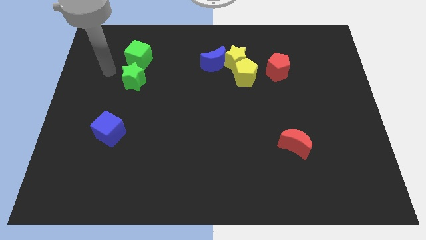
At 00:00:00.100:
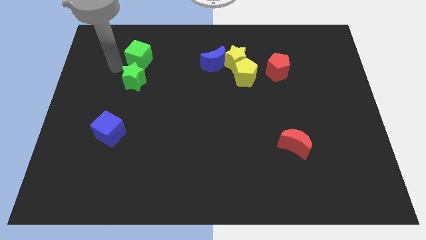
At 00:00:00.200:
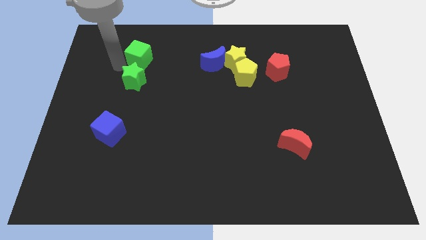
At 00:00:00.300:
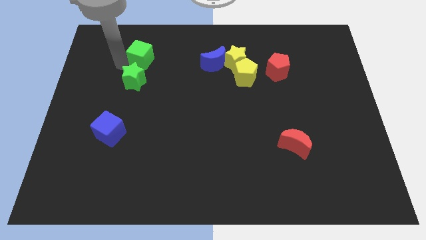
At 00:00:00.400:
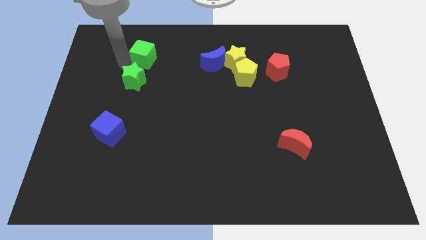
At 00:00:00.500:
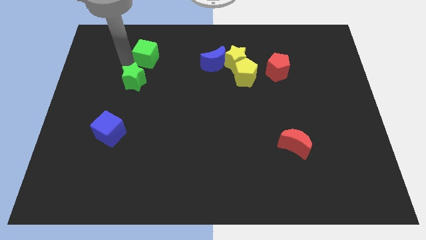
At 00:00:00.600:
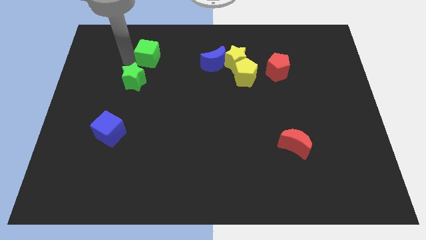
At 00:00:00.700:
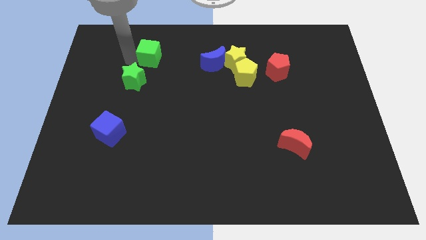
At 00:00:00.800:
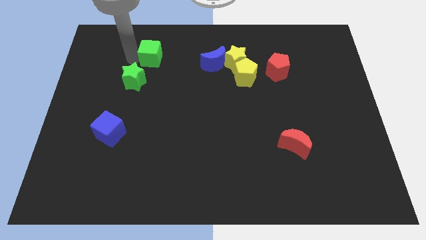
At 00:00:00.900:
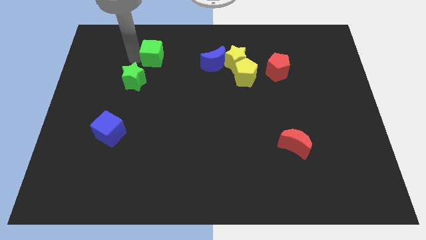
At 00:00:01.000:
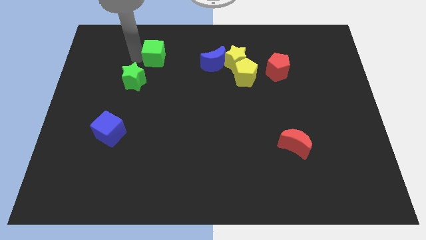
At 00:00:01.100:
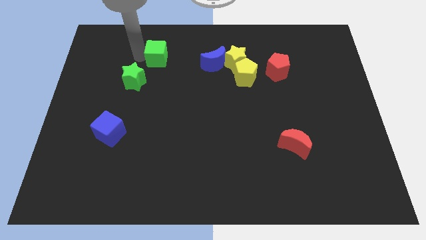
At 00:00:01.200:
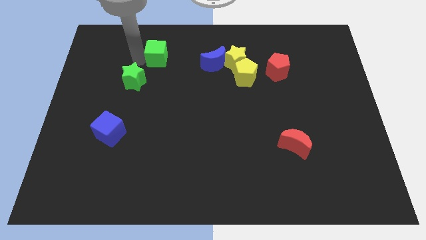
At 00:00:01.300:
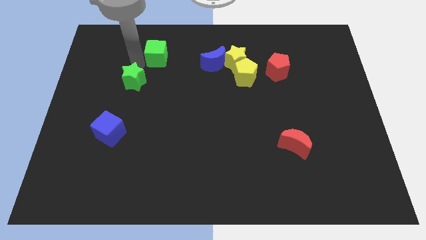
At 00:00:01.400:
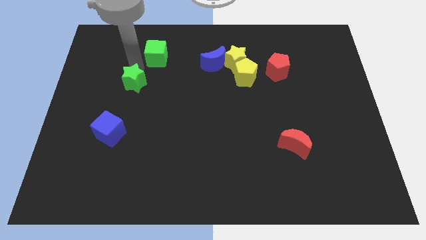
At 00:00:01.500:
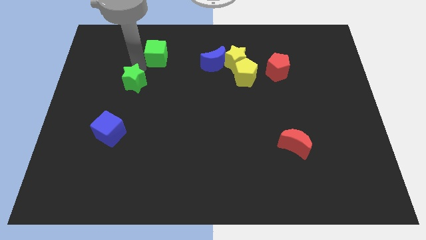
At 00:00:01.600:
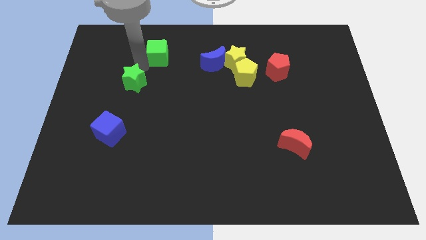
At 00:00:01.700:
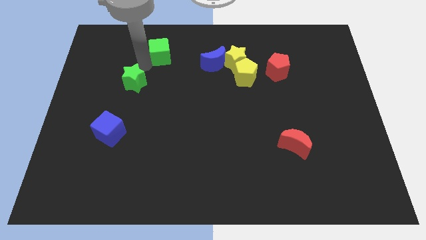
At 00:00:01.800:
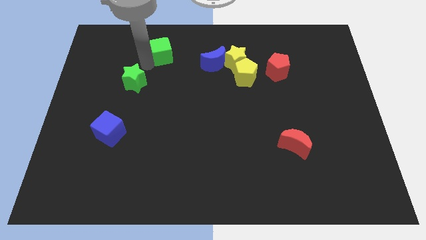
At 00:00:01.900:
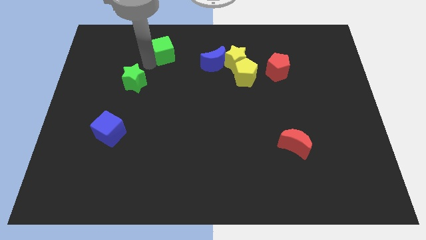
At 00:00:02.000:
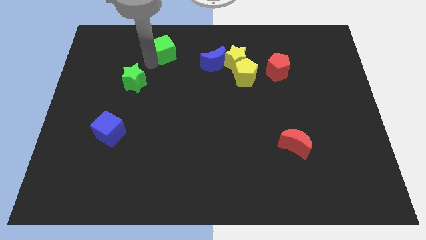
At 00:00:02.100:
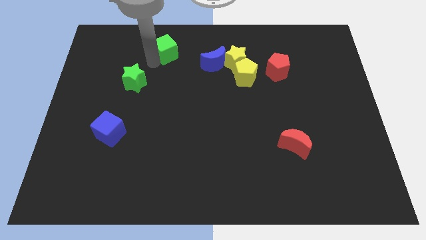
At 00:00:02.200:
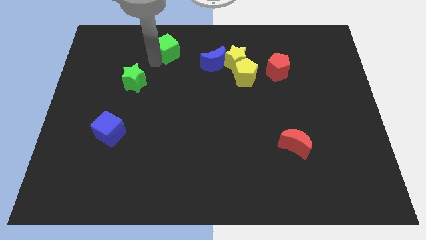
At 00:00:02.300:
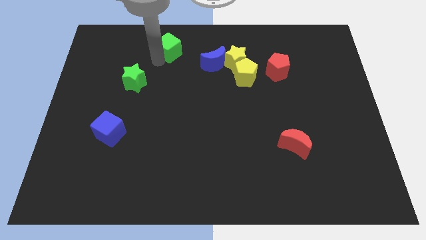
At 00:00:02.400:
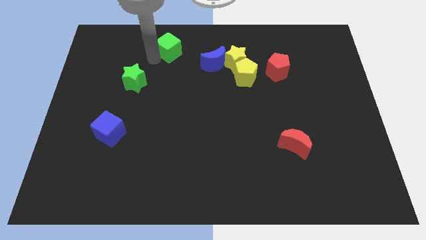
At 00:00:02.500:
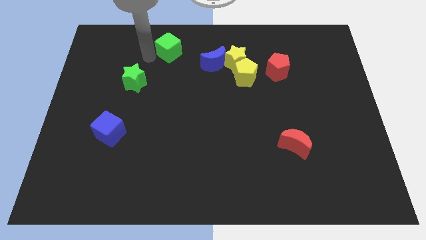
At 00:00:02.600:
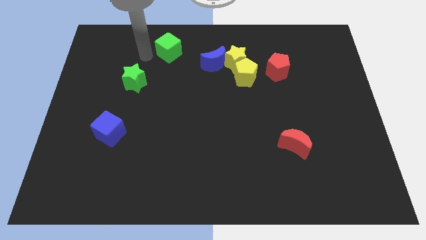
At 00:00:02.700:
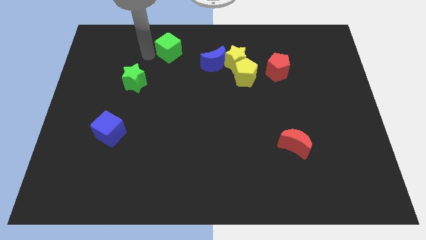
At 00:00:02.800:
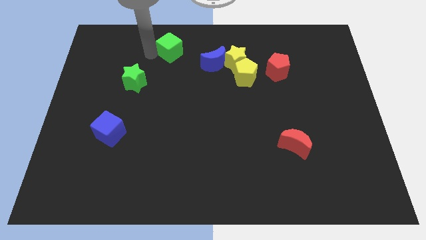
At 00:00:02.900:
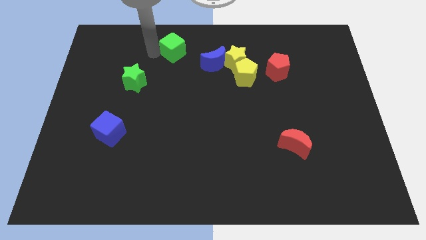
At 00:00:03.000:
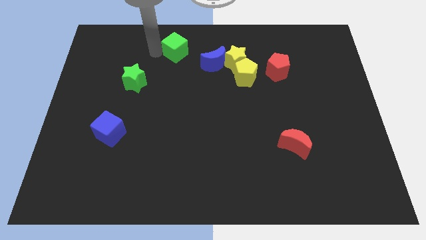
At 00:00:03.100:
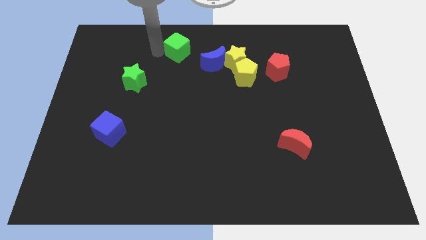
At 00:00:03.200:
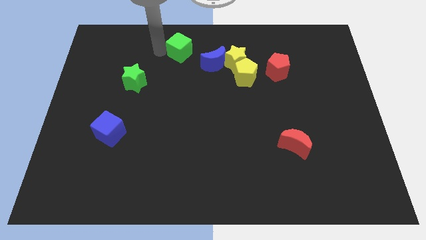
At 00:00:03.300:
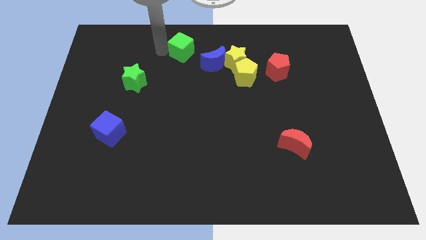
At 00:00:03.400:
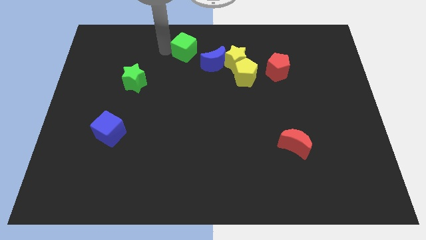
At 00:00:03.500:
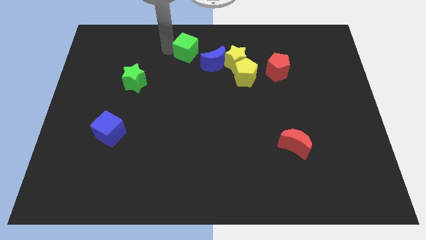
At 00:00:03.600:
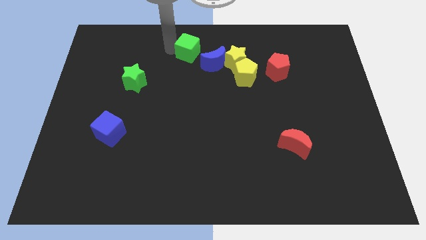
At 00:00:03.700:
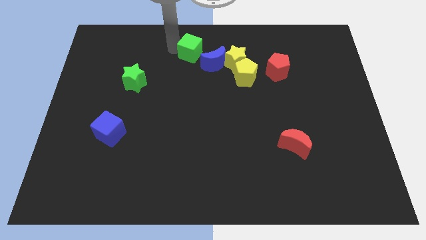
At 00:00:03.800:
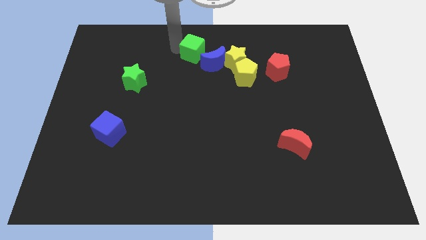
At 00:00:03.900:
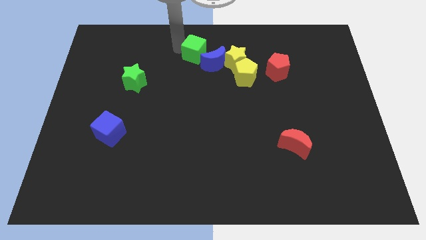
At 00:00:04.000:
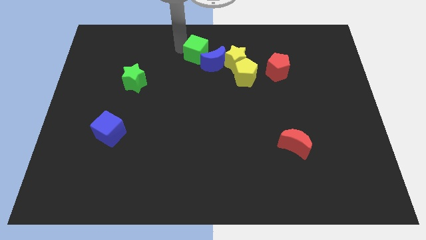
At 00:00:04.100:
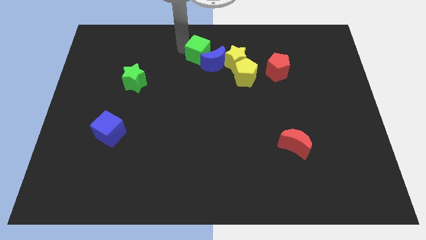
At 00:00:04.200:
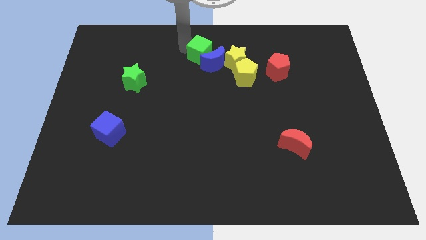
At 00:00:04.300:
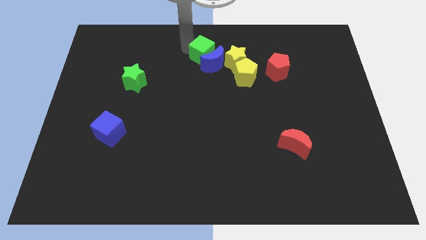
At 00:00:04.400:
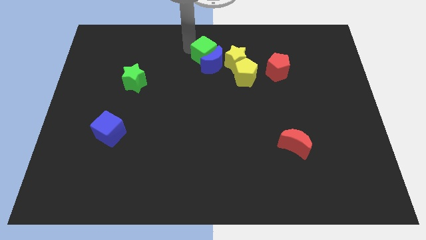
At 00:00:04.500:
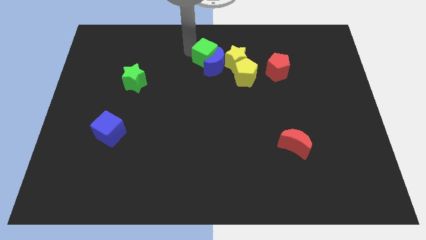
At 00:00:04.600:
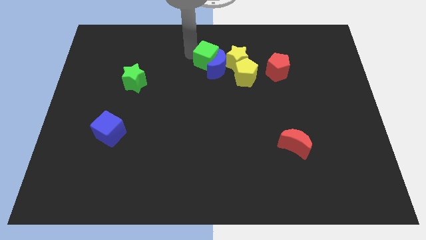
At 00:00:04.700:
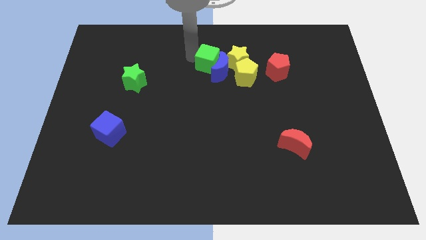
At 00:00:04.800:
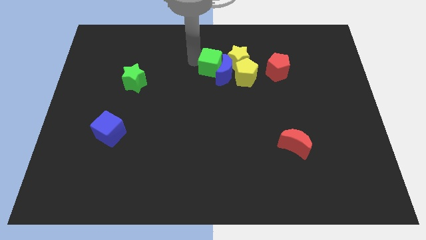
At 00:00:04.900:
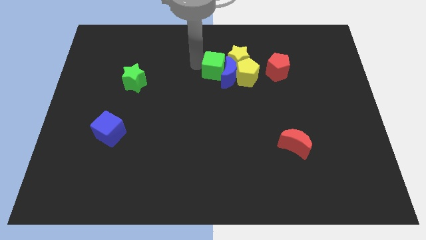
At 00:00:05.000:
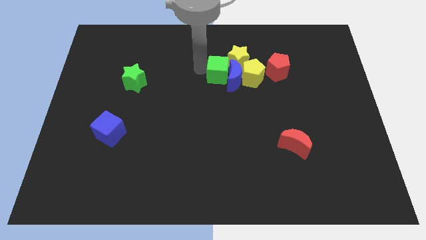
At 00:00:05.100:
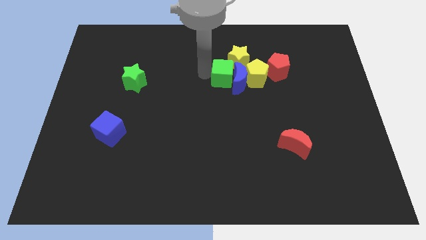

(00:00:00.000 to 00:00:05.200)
move the green cube to the right

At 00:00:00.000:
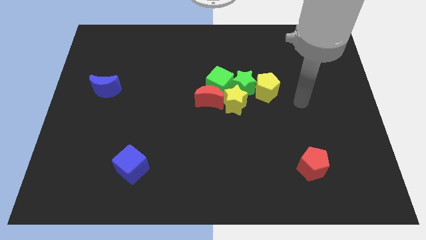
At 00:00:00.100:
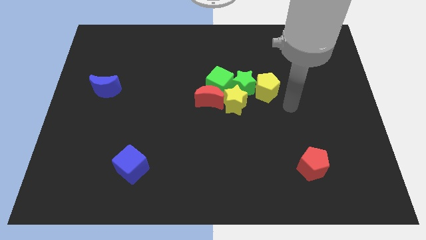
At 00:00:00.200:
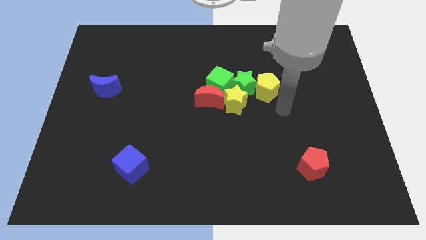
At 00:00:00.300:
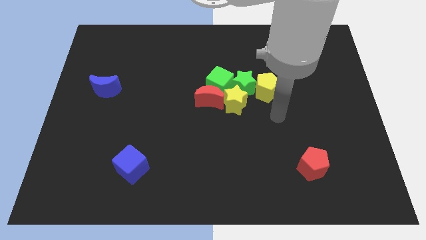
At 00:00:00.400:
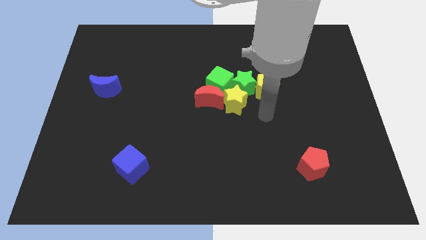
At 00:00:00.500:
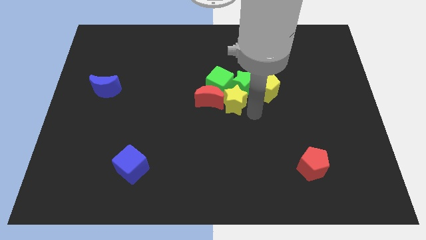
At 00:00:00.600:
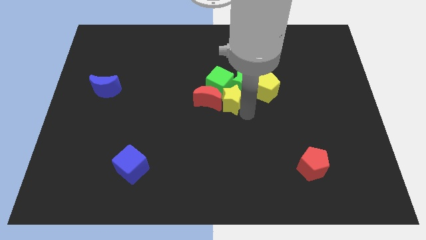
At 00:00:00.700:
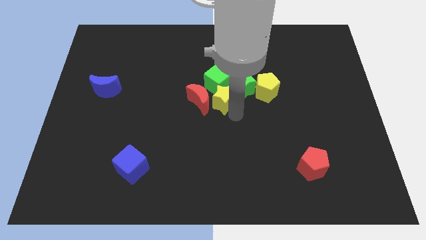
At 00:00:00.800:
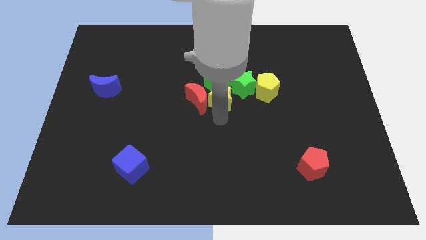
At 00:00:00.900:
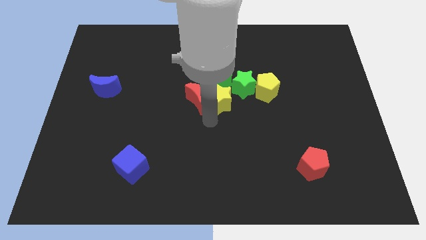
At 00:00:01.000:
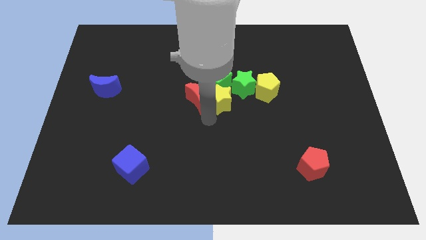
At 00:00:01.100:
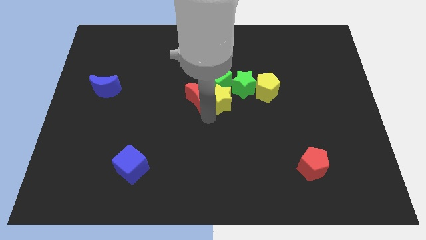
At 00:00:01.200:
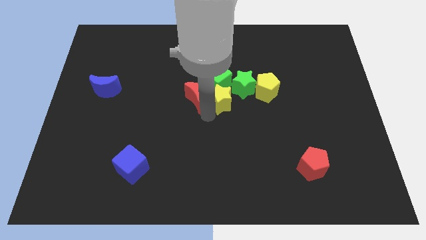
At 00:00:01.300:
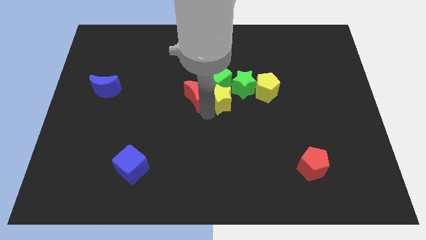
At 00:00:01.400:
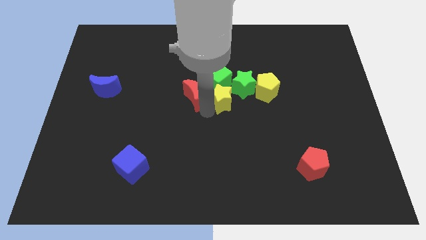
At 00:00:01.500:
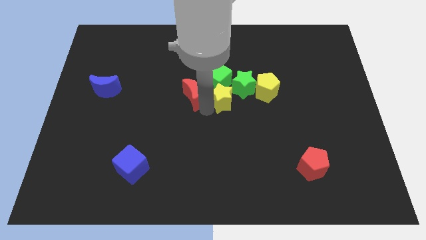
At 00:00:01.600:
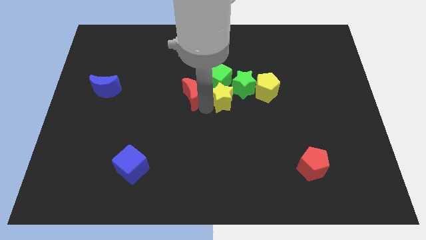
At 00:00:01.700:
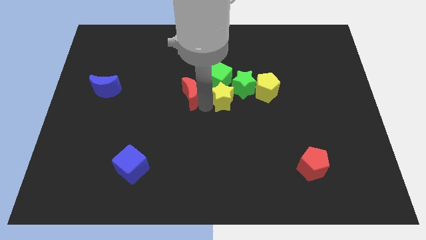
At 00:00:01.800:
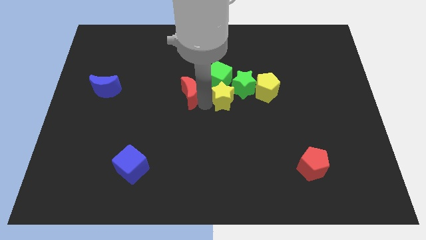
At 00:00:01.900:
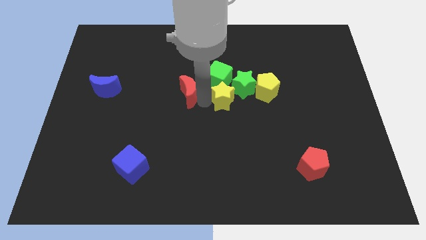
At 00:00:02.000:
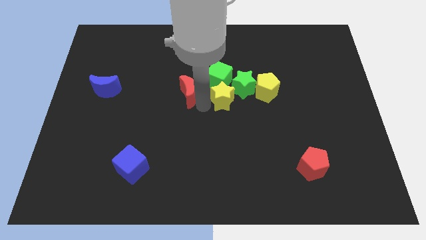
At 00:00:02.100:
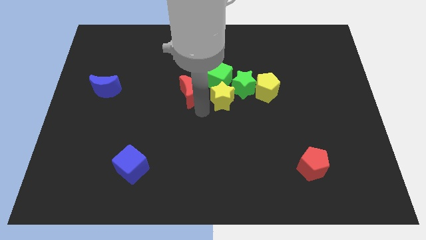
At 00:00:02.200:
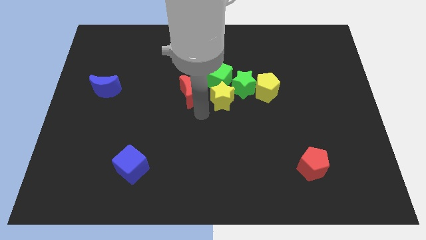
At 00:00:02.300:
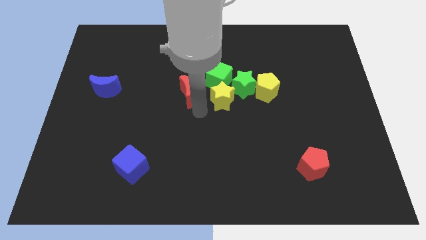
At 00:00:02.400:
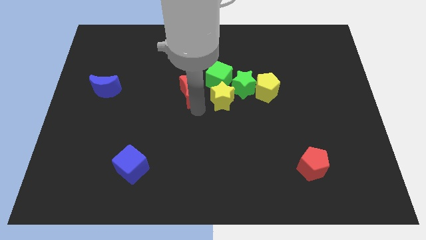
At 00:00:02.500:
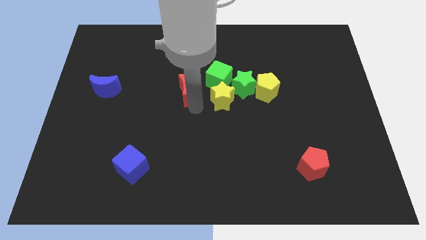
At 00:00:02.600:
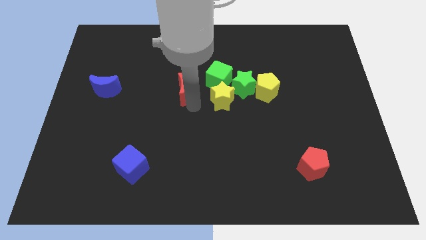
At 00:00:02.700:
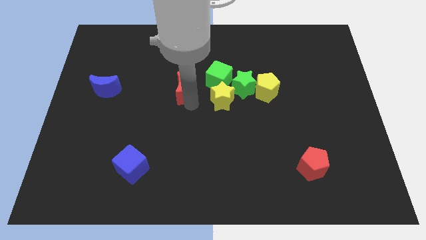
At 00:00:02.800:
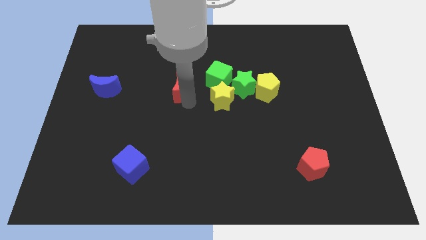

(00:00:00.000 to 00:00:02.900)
push the red moon somewhat diagonally up and left
